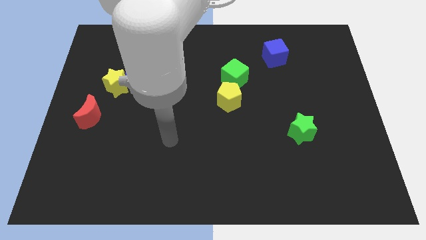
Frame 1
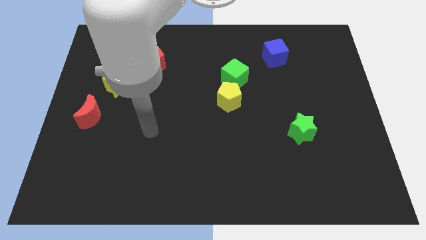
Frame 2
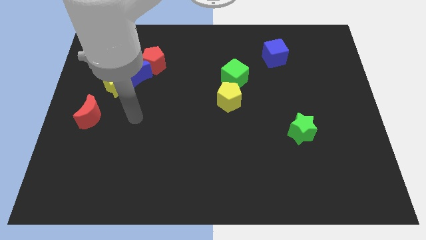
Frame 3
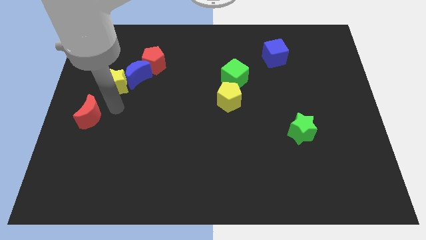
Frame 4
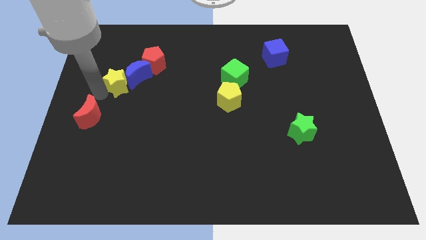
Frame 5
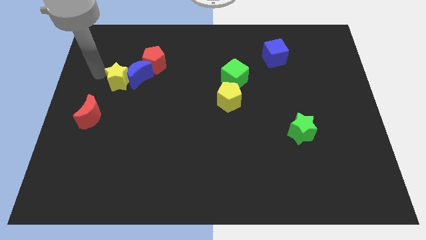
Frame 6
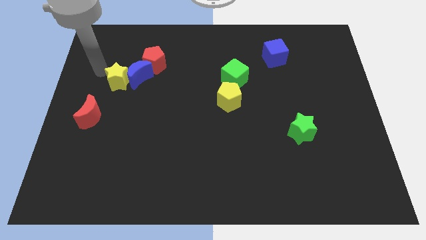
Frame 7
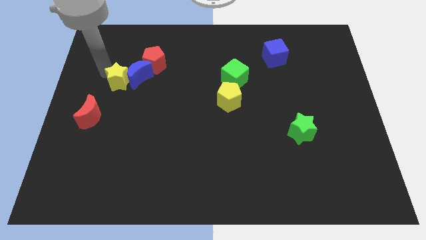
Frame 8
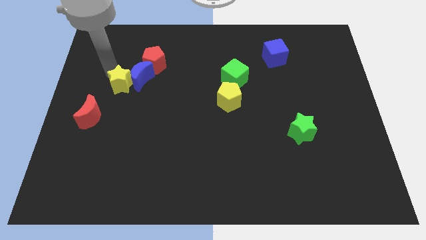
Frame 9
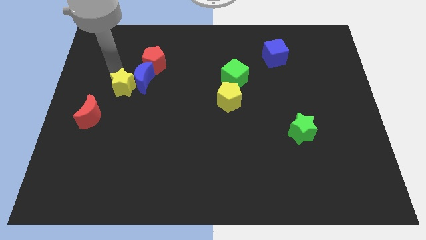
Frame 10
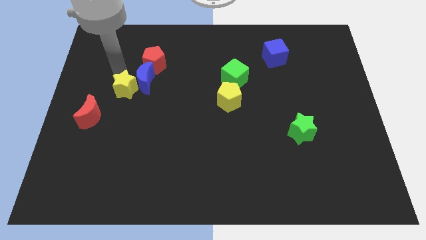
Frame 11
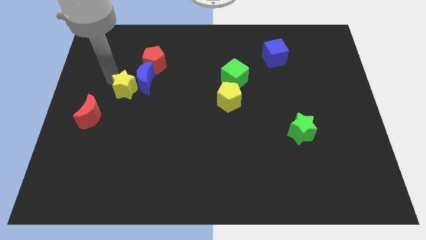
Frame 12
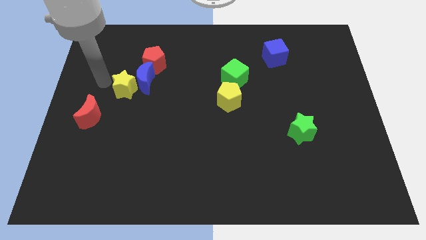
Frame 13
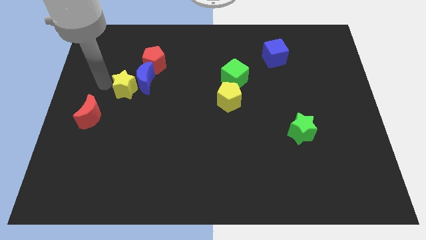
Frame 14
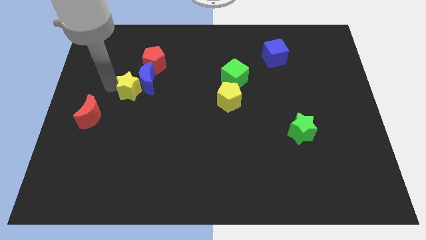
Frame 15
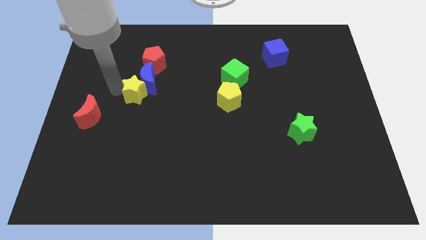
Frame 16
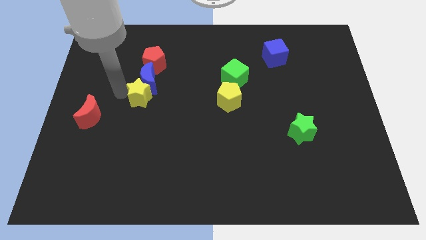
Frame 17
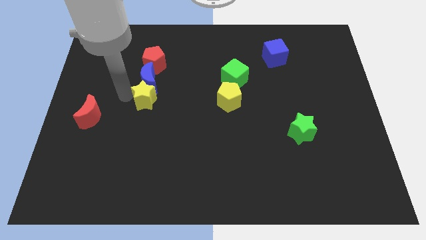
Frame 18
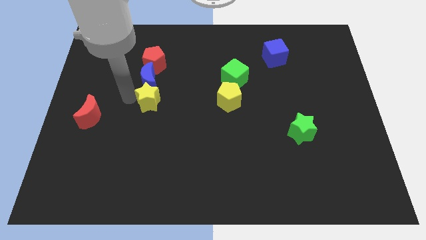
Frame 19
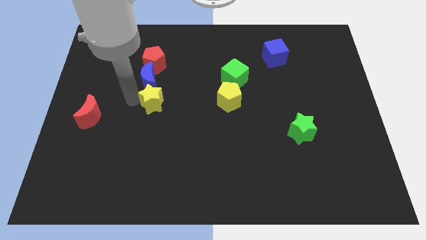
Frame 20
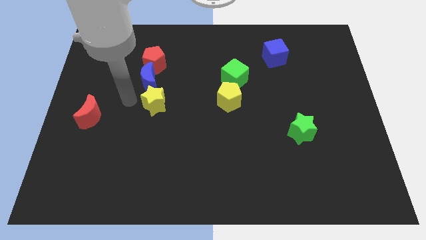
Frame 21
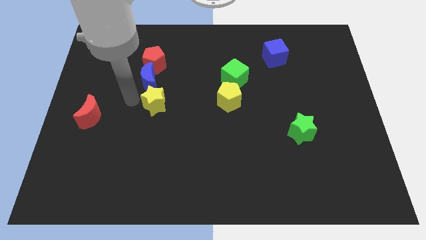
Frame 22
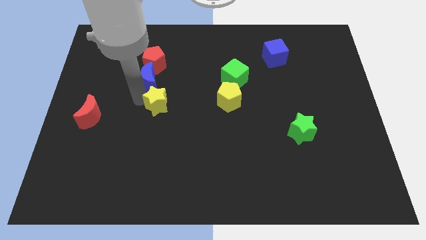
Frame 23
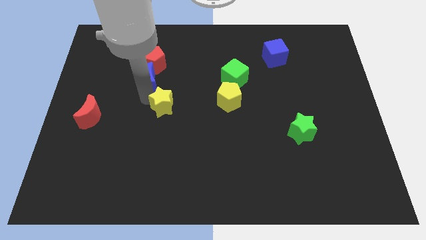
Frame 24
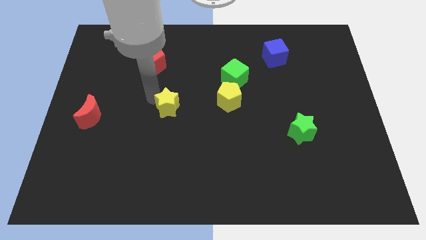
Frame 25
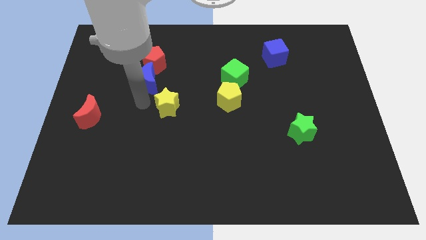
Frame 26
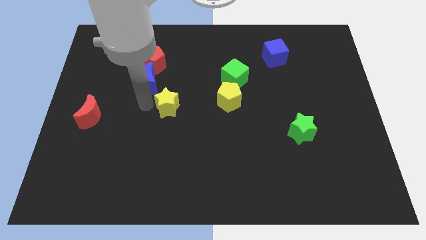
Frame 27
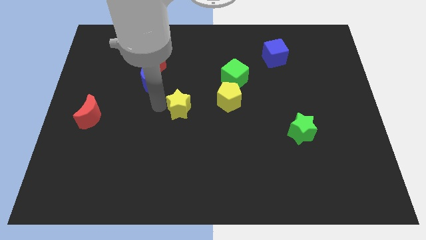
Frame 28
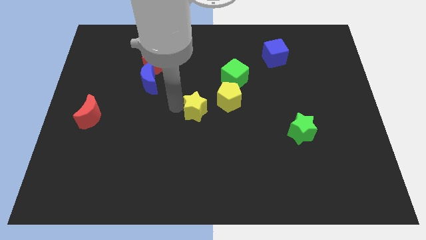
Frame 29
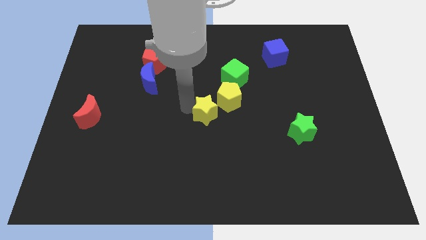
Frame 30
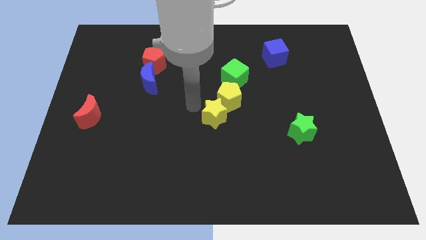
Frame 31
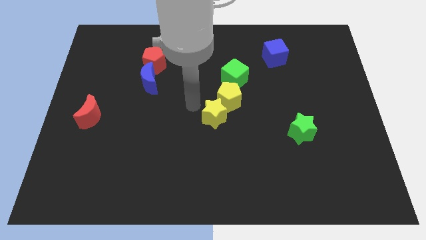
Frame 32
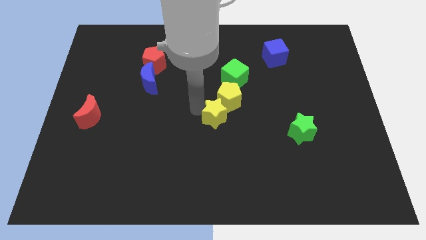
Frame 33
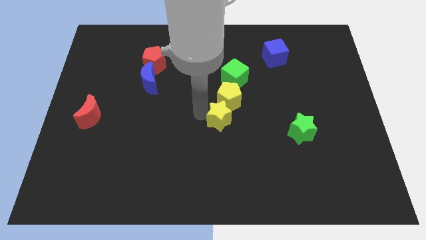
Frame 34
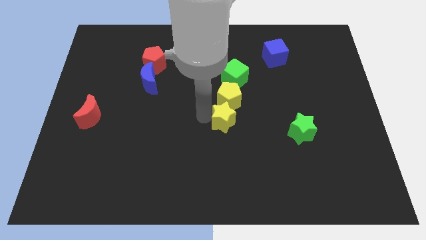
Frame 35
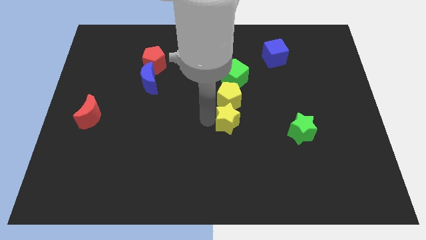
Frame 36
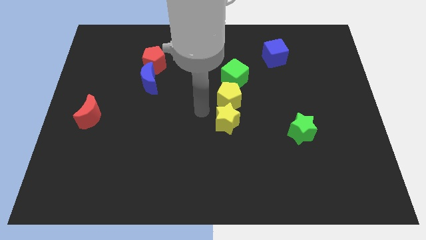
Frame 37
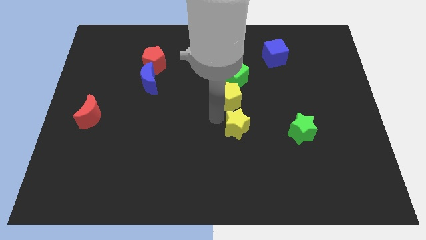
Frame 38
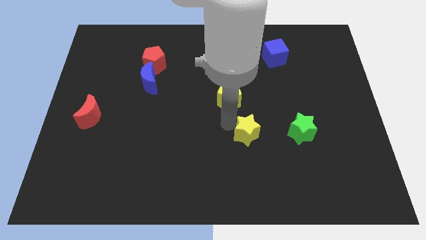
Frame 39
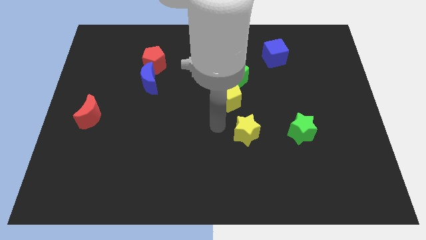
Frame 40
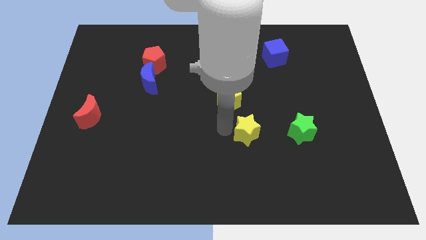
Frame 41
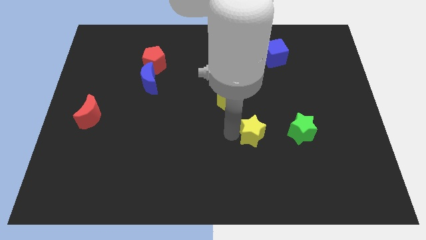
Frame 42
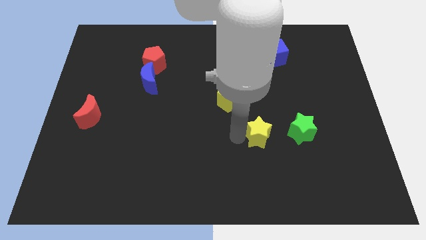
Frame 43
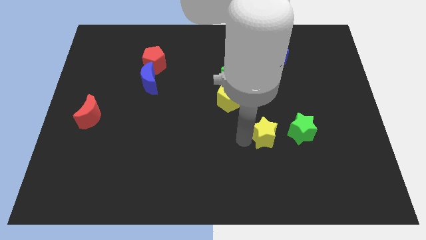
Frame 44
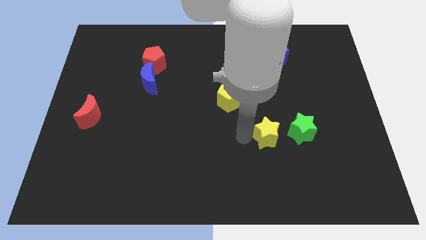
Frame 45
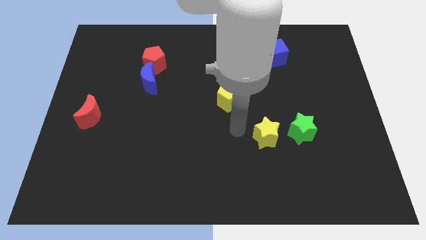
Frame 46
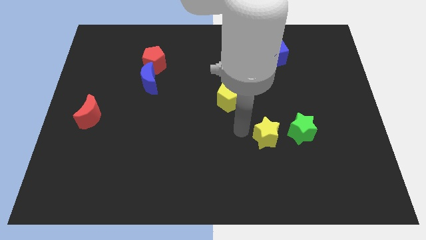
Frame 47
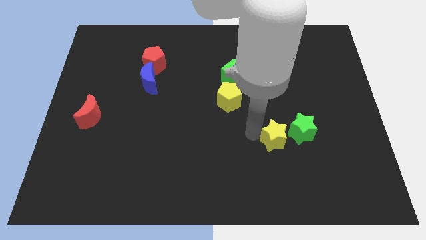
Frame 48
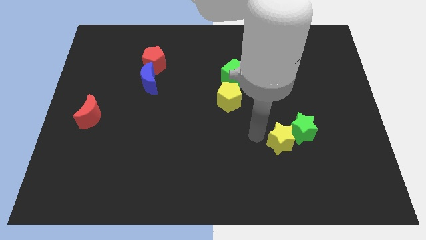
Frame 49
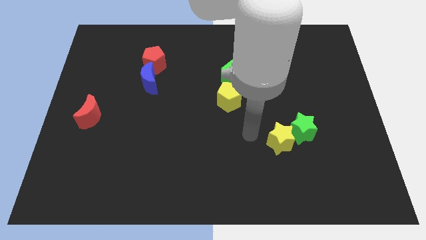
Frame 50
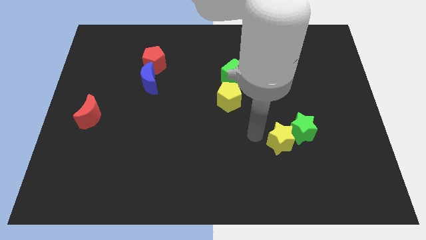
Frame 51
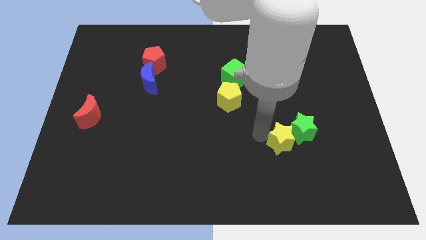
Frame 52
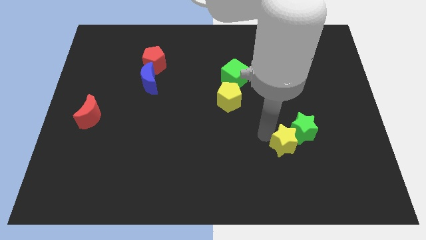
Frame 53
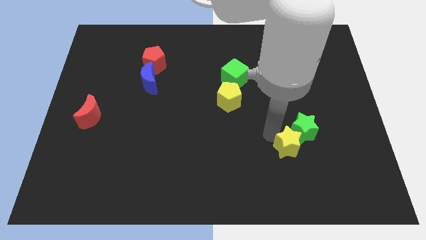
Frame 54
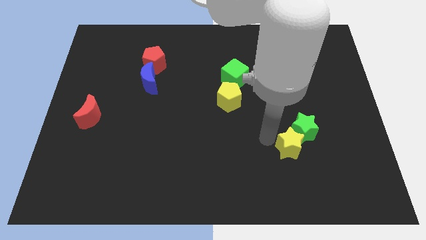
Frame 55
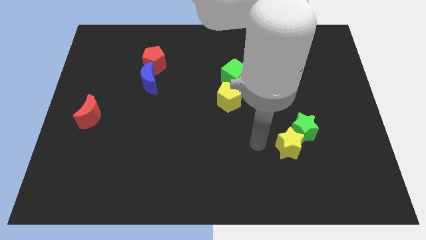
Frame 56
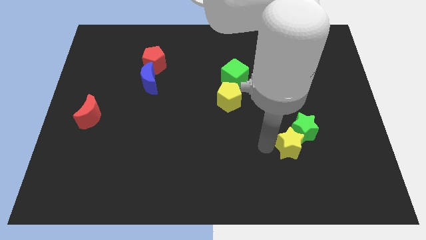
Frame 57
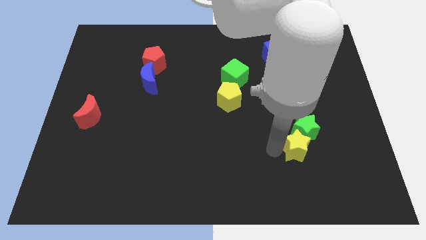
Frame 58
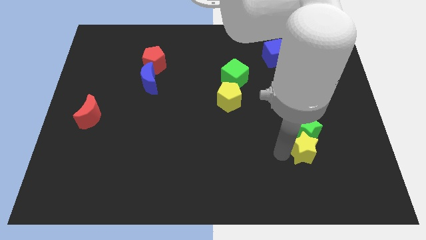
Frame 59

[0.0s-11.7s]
move the yellow star to the bottom right side of the green star

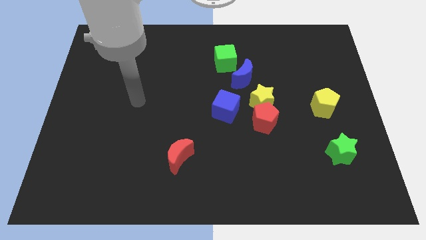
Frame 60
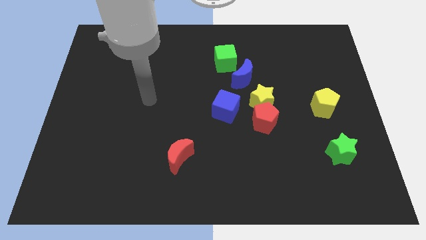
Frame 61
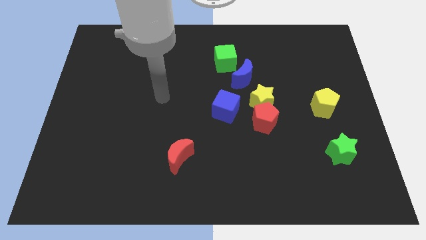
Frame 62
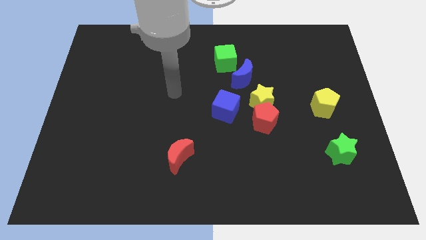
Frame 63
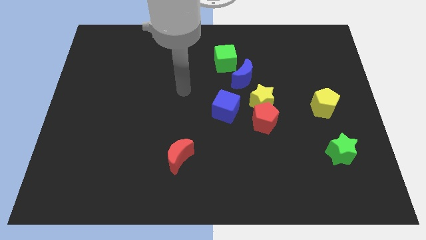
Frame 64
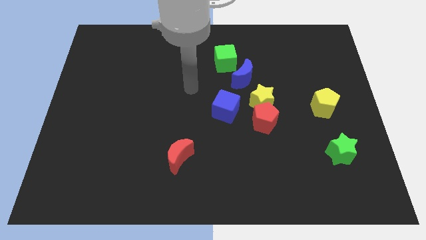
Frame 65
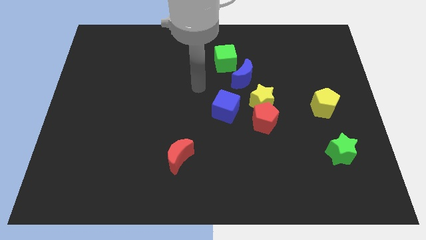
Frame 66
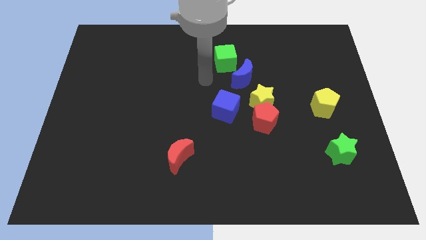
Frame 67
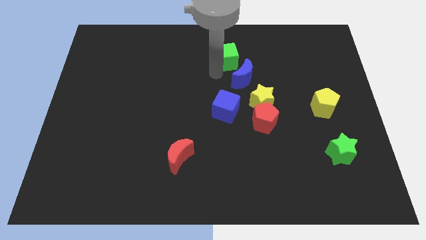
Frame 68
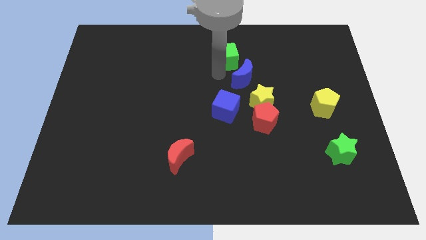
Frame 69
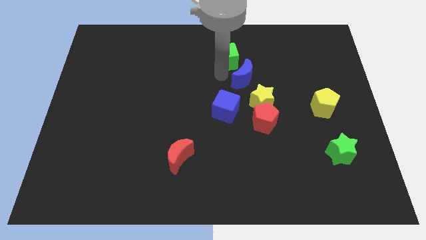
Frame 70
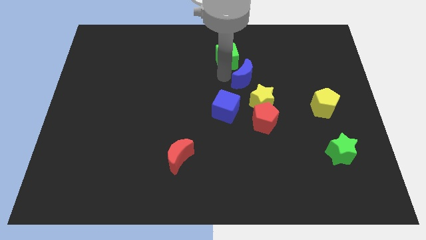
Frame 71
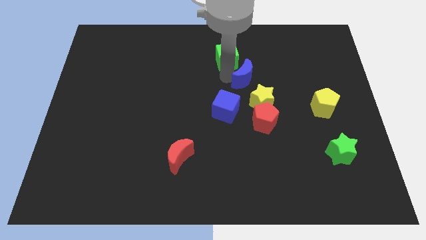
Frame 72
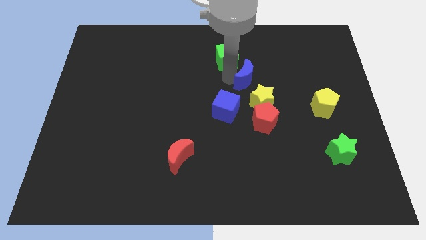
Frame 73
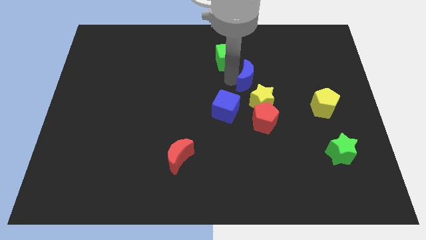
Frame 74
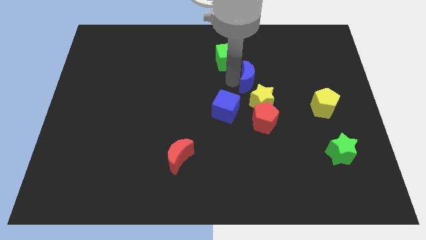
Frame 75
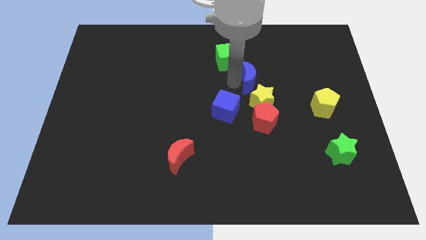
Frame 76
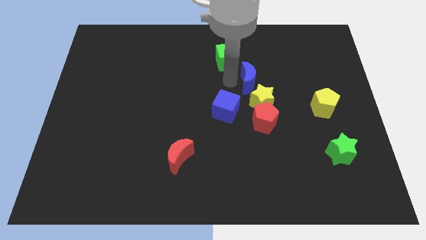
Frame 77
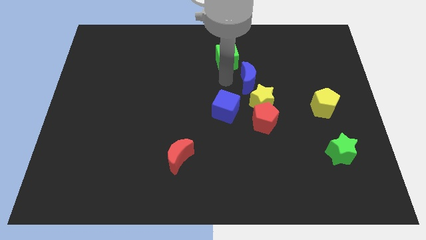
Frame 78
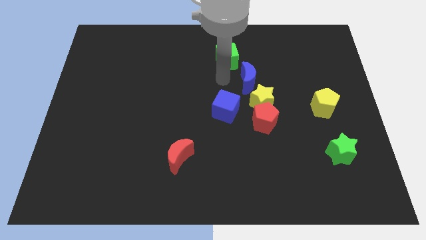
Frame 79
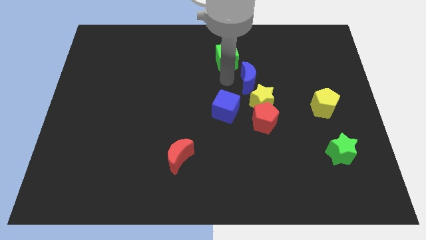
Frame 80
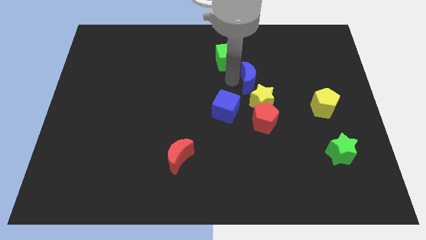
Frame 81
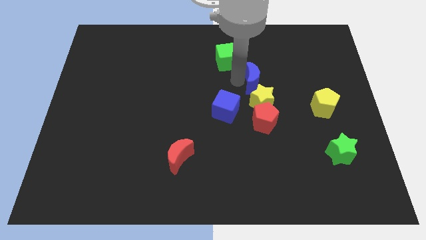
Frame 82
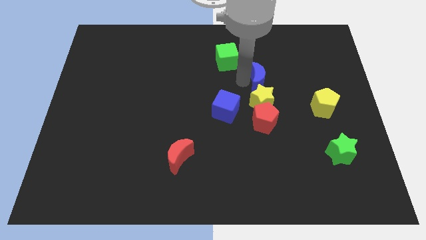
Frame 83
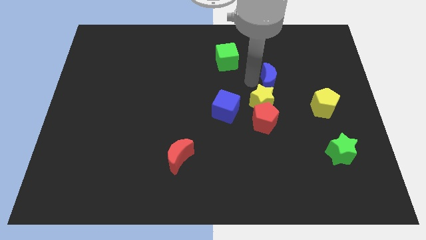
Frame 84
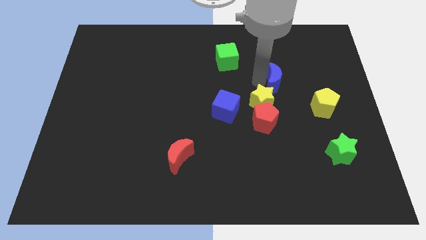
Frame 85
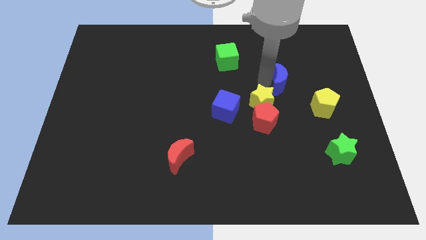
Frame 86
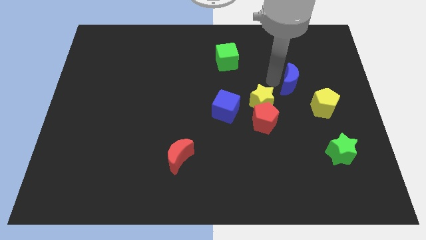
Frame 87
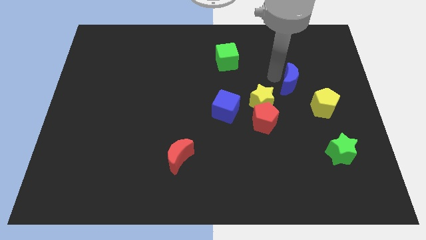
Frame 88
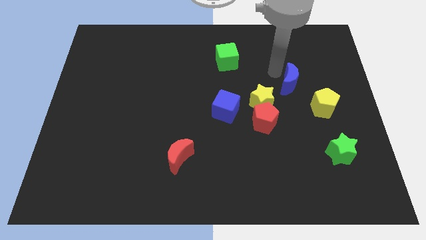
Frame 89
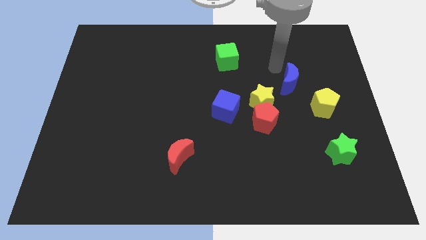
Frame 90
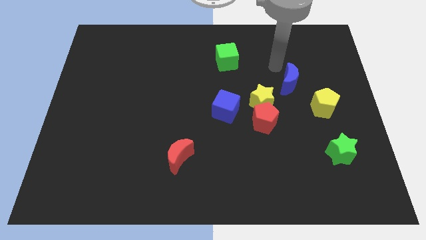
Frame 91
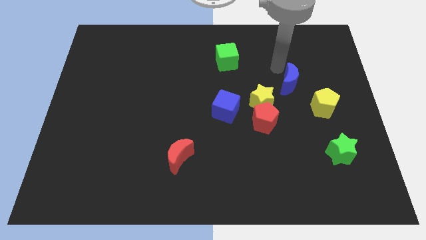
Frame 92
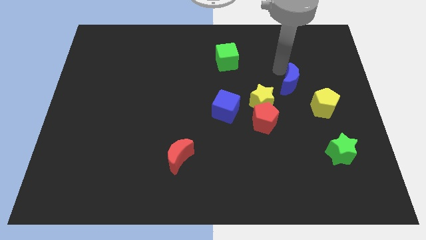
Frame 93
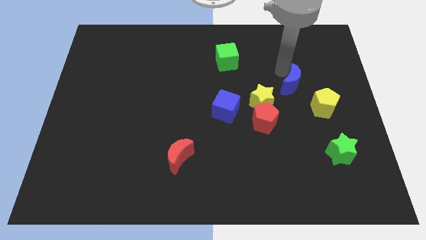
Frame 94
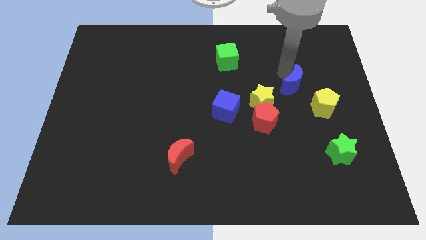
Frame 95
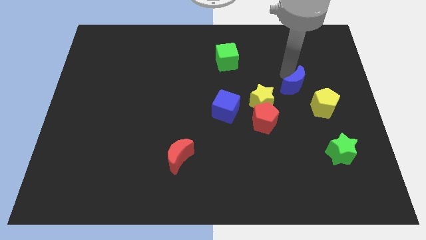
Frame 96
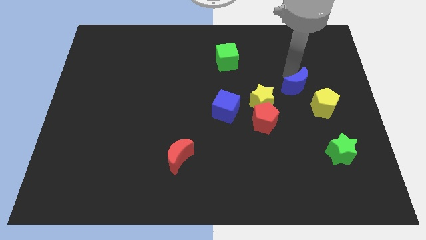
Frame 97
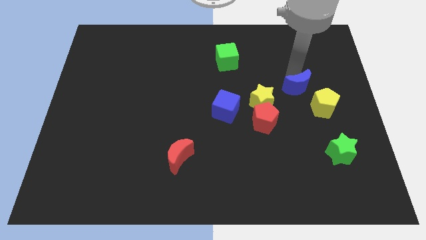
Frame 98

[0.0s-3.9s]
slide the blue moon to the right of the yellow star
